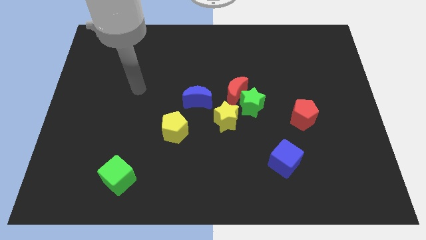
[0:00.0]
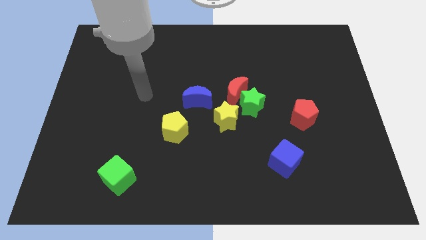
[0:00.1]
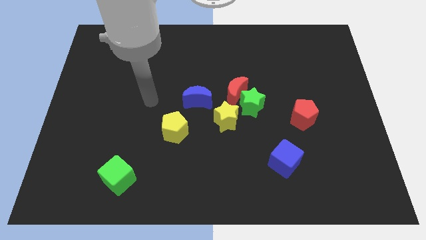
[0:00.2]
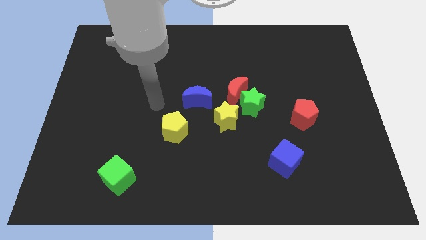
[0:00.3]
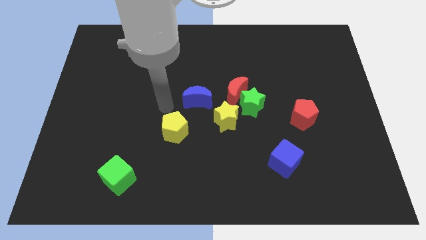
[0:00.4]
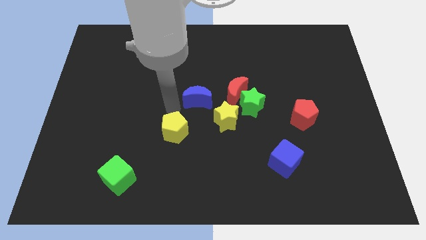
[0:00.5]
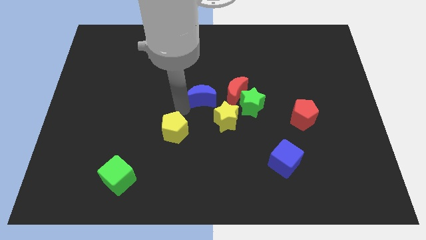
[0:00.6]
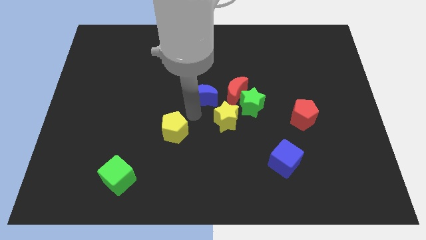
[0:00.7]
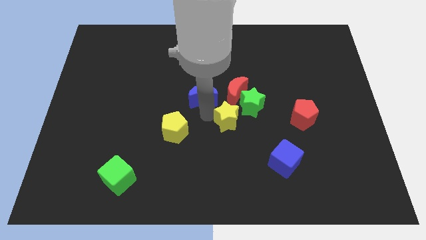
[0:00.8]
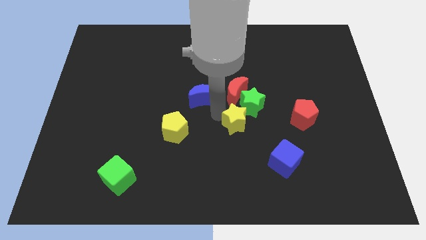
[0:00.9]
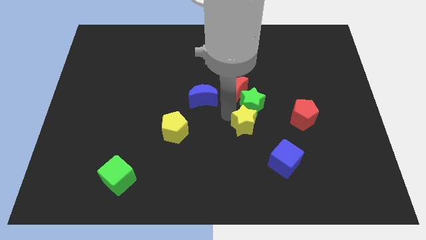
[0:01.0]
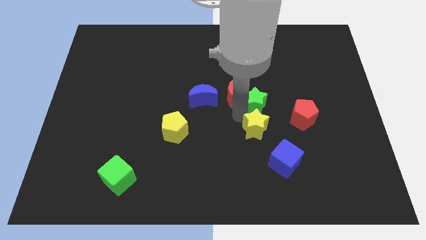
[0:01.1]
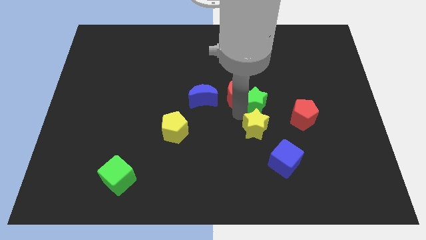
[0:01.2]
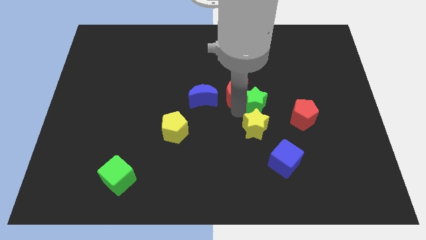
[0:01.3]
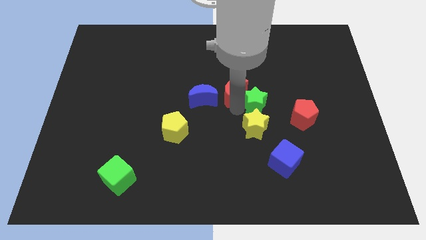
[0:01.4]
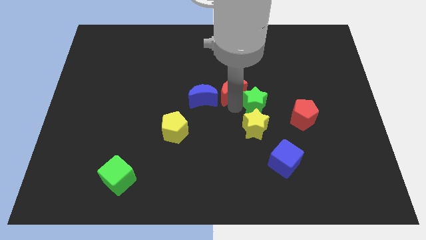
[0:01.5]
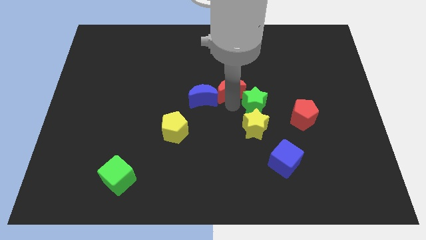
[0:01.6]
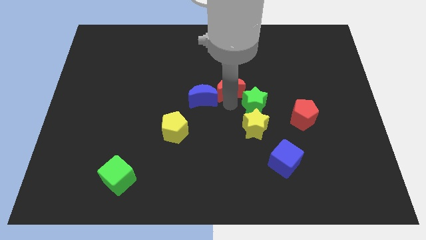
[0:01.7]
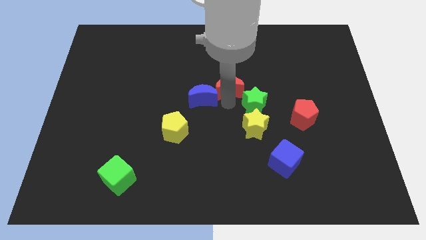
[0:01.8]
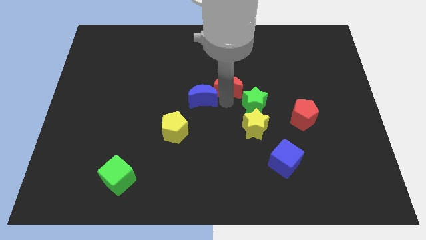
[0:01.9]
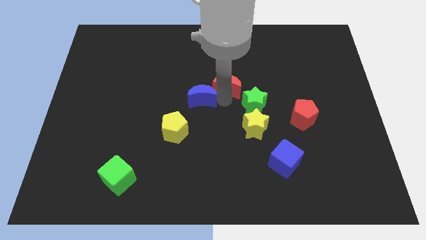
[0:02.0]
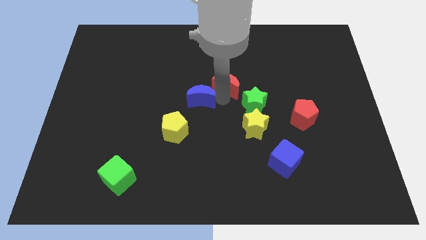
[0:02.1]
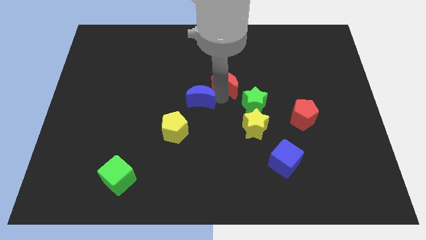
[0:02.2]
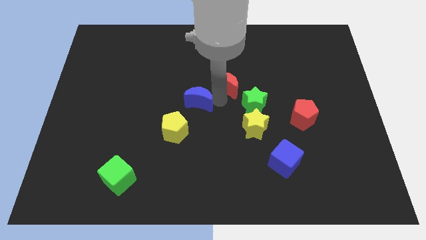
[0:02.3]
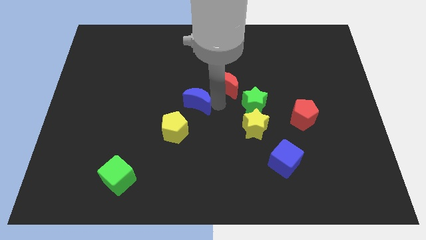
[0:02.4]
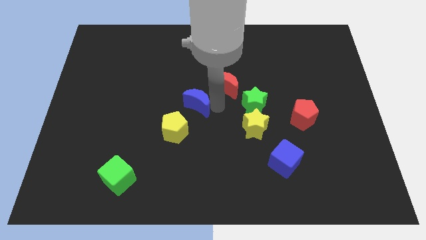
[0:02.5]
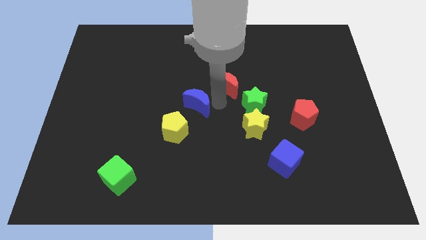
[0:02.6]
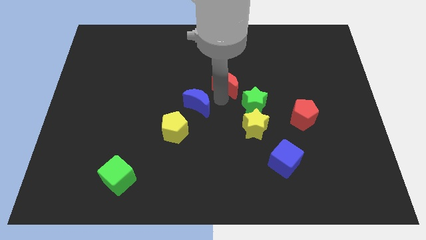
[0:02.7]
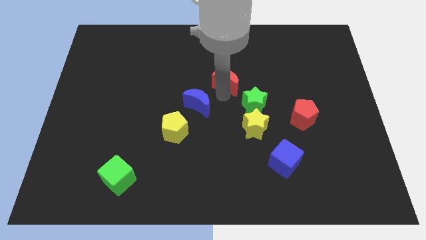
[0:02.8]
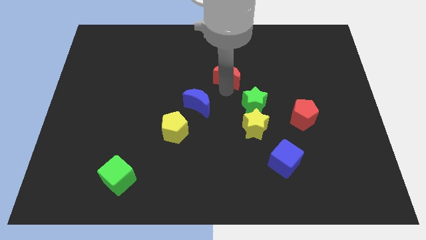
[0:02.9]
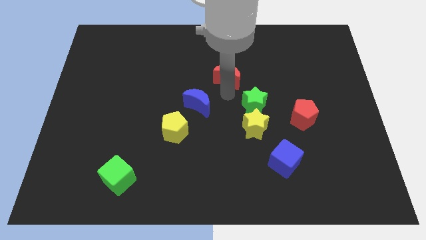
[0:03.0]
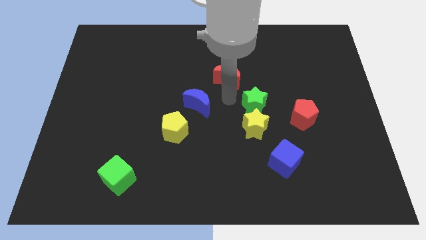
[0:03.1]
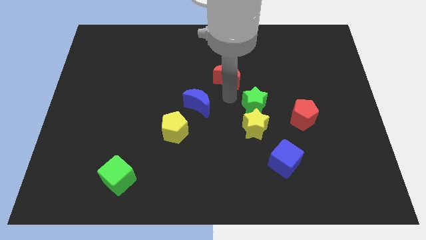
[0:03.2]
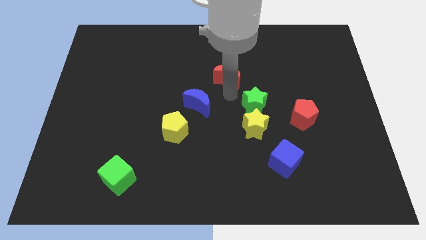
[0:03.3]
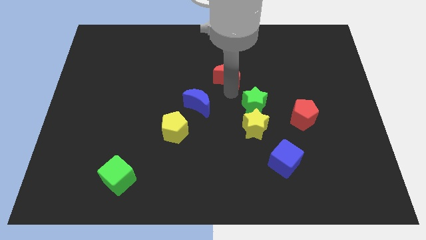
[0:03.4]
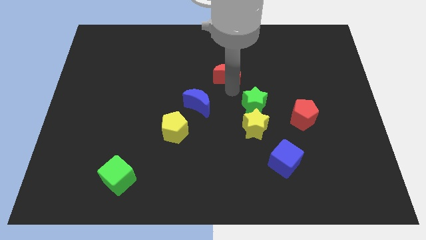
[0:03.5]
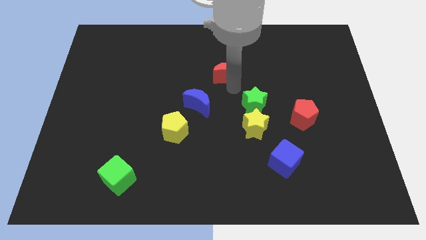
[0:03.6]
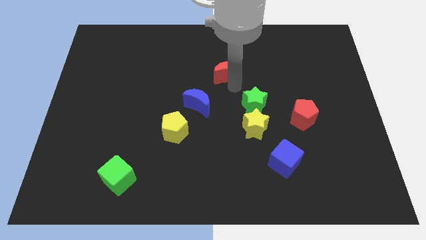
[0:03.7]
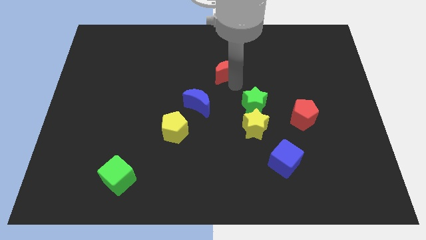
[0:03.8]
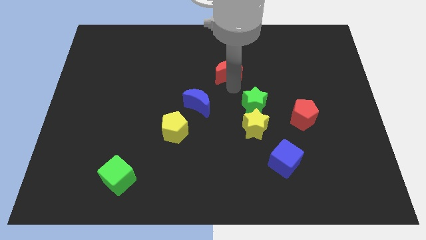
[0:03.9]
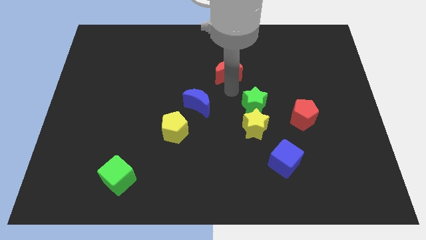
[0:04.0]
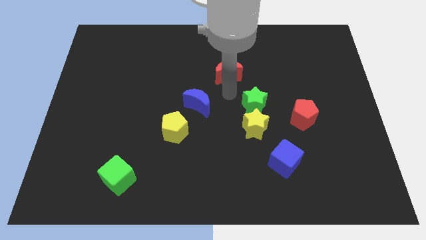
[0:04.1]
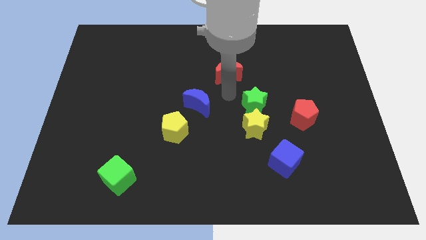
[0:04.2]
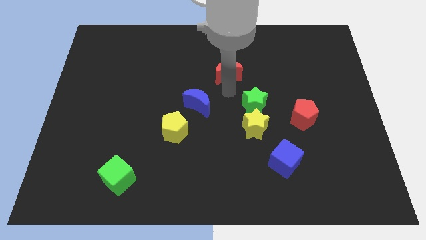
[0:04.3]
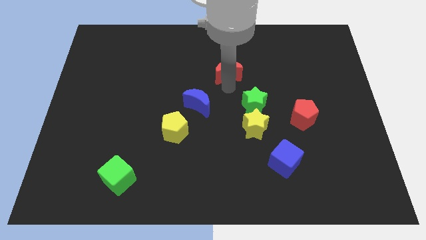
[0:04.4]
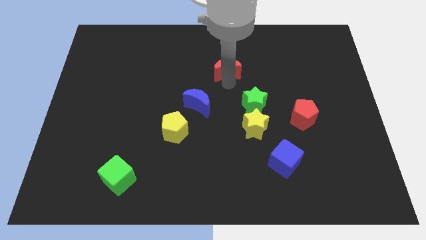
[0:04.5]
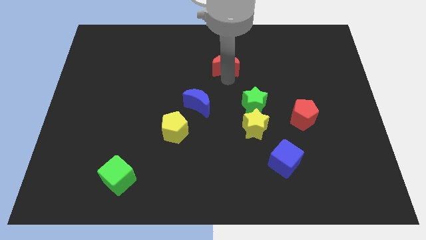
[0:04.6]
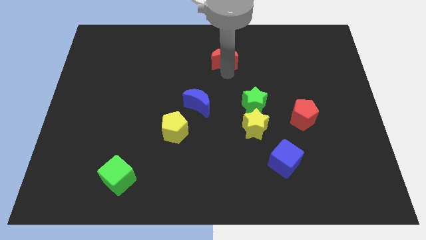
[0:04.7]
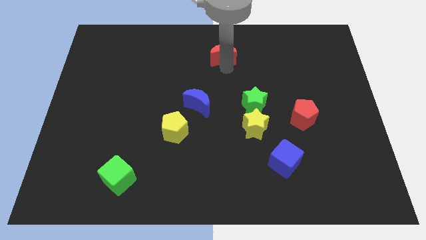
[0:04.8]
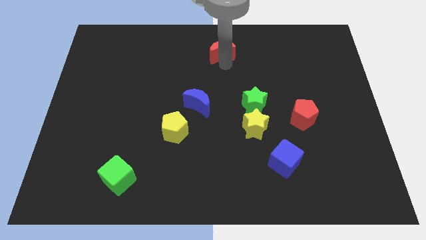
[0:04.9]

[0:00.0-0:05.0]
slide the red moon to the top side
